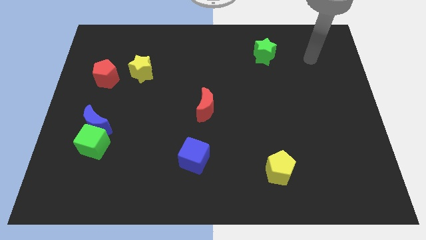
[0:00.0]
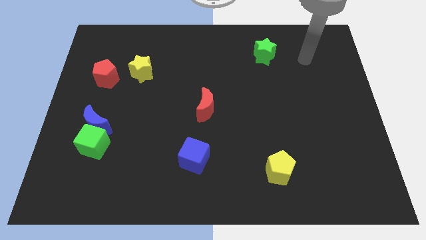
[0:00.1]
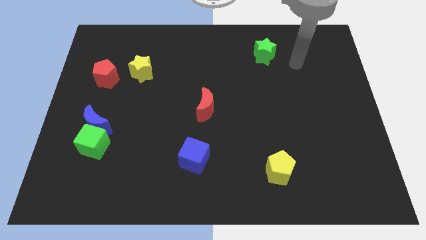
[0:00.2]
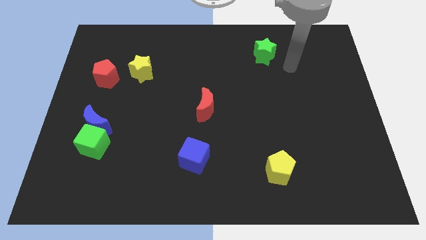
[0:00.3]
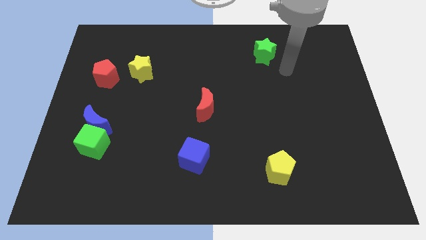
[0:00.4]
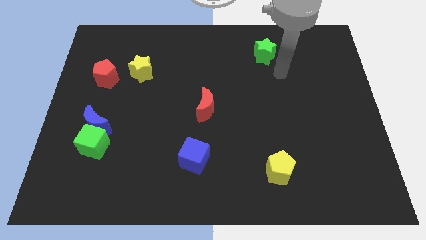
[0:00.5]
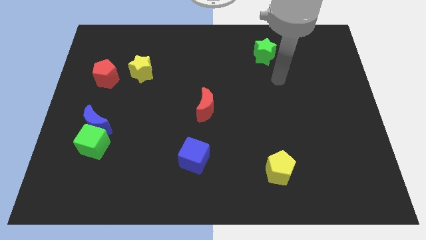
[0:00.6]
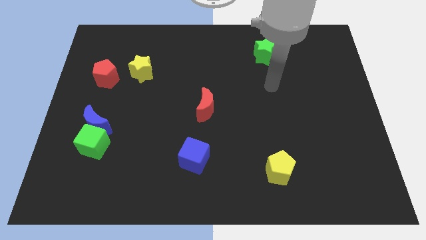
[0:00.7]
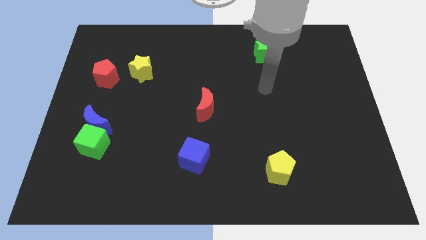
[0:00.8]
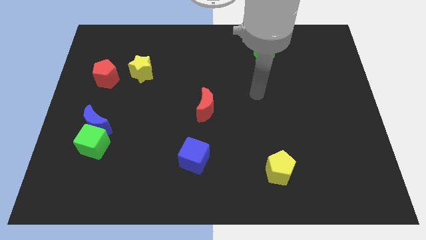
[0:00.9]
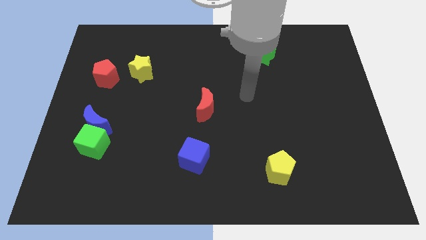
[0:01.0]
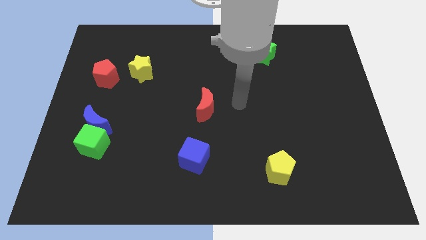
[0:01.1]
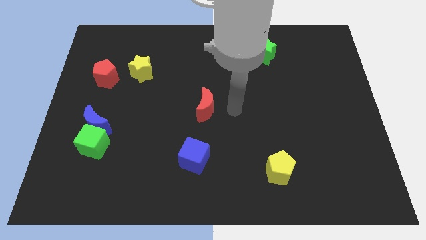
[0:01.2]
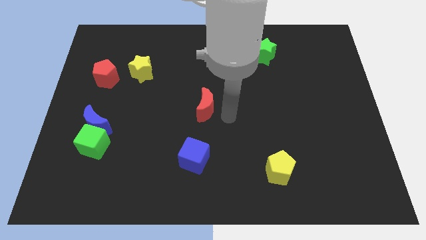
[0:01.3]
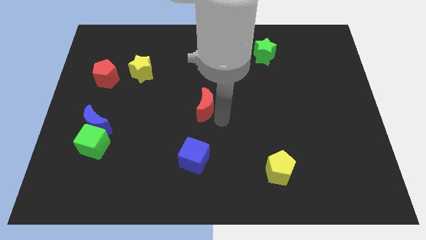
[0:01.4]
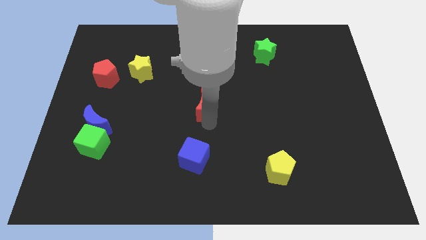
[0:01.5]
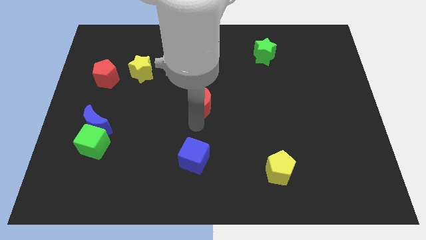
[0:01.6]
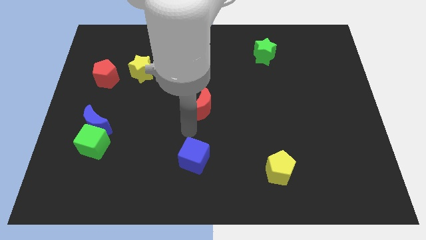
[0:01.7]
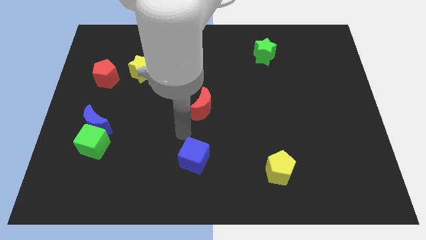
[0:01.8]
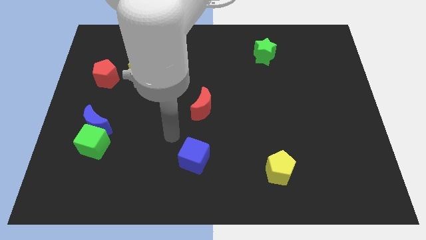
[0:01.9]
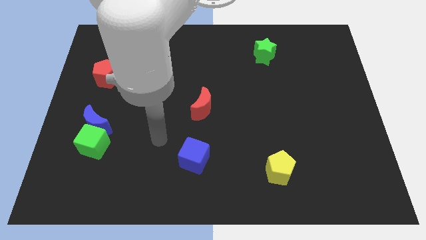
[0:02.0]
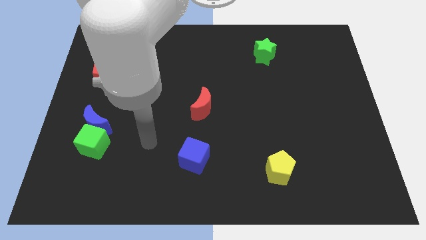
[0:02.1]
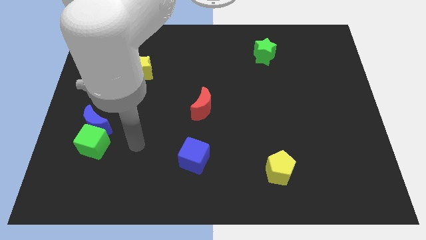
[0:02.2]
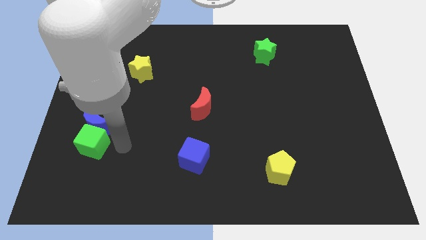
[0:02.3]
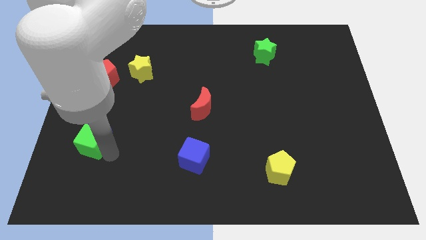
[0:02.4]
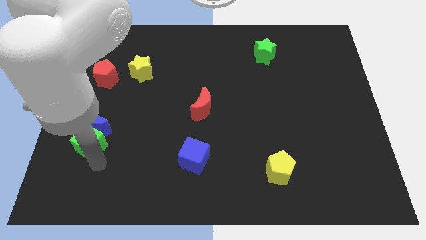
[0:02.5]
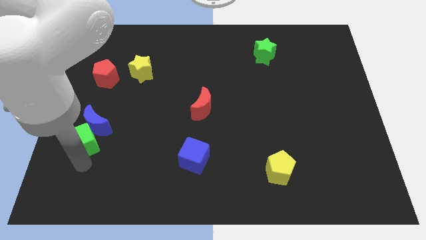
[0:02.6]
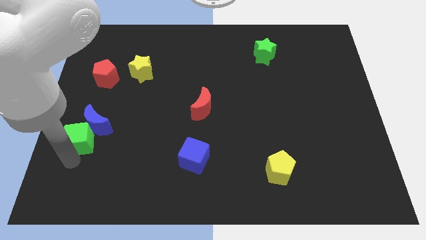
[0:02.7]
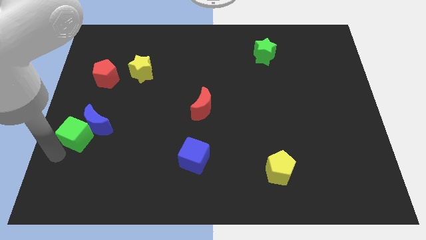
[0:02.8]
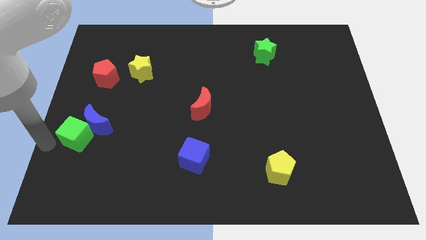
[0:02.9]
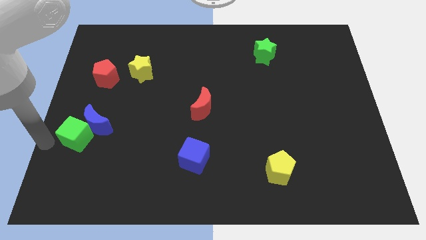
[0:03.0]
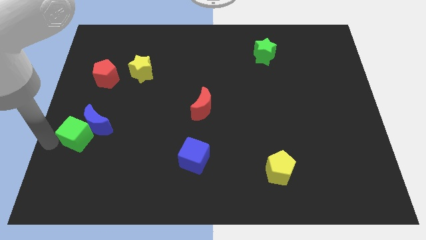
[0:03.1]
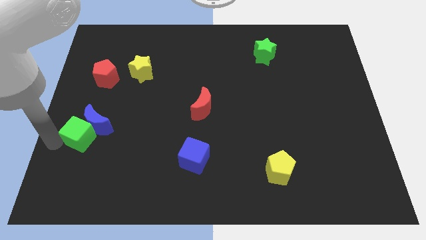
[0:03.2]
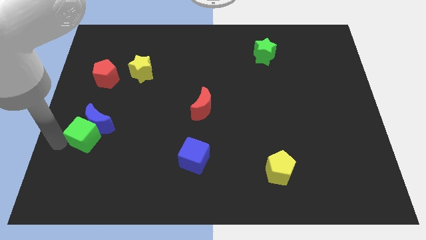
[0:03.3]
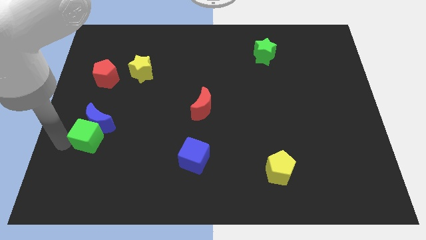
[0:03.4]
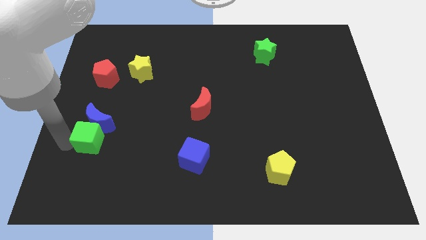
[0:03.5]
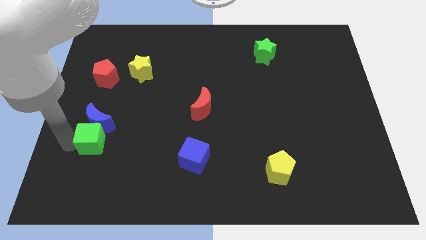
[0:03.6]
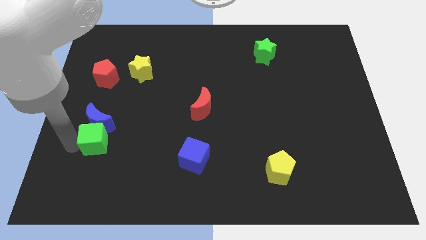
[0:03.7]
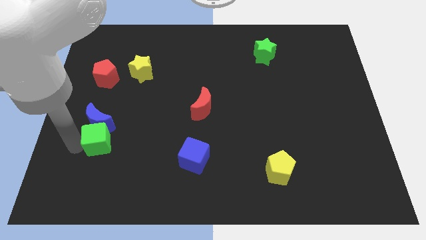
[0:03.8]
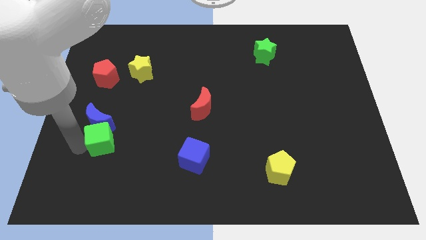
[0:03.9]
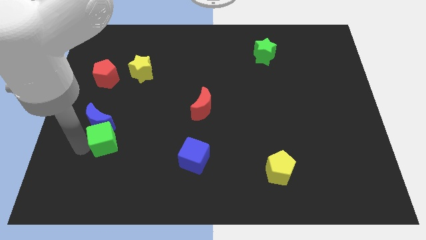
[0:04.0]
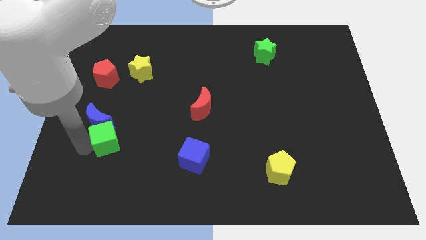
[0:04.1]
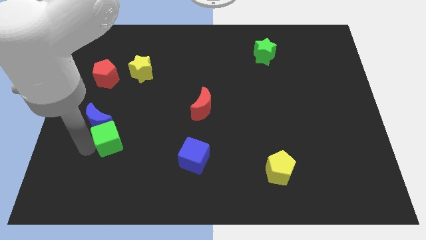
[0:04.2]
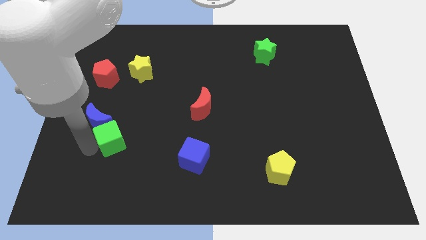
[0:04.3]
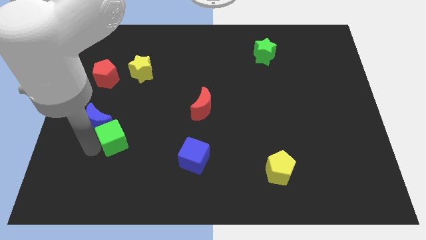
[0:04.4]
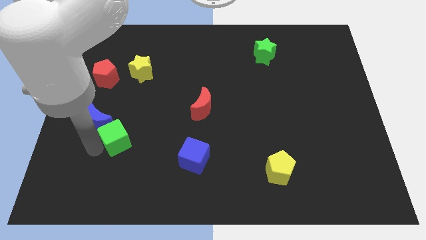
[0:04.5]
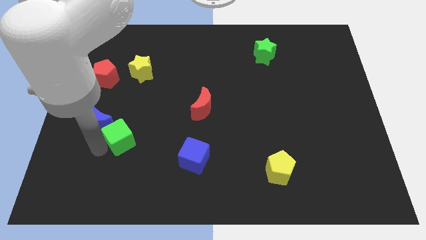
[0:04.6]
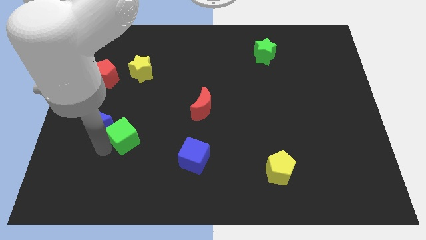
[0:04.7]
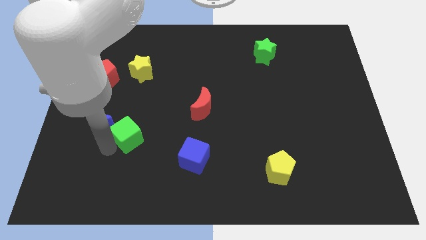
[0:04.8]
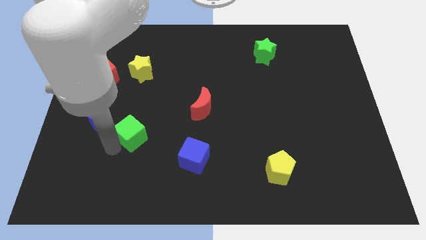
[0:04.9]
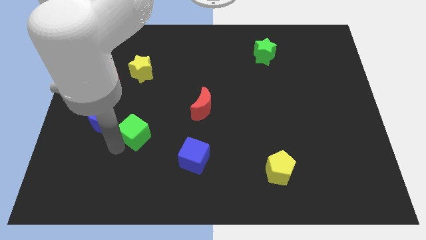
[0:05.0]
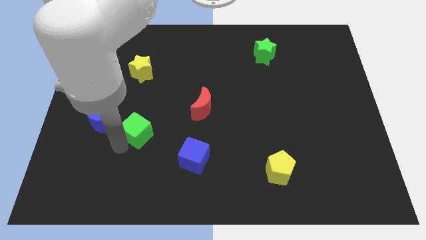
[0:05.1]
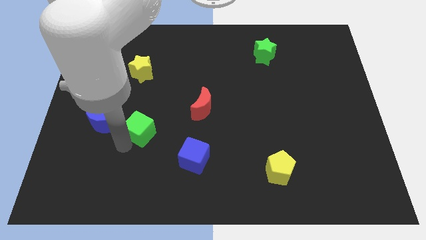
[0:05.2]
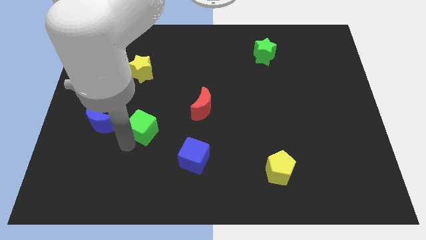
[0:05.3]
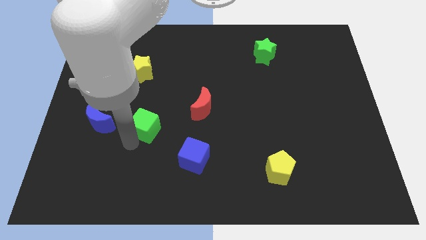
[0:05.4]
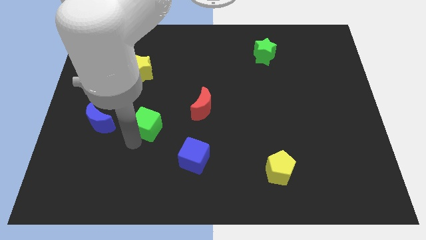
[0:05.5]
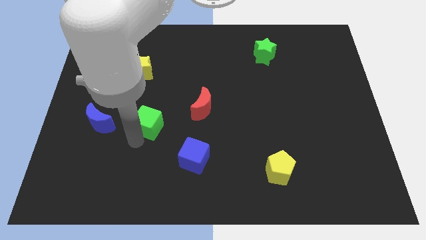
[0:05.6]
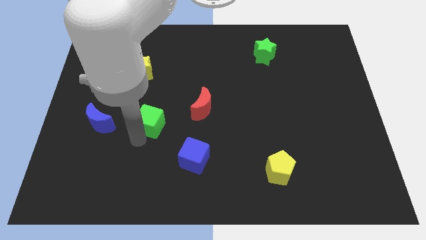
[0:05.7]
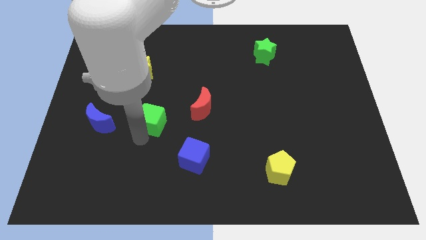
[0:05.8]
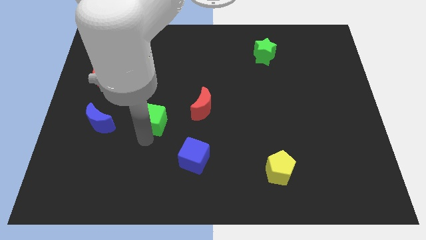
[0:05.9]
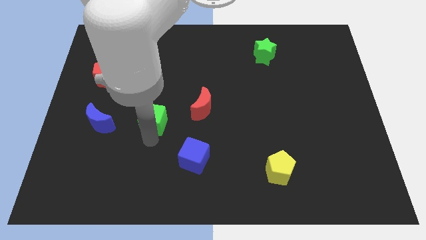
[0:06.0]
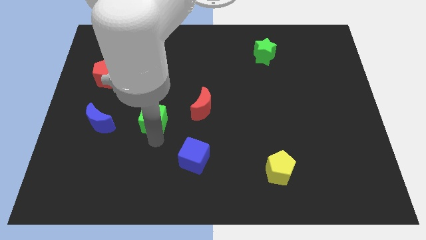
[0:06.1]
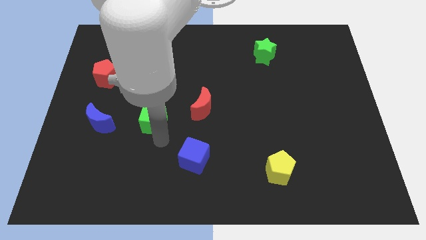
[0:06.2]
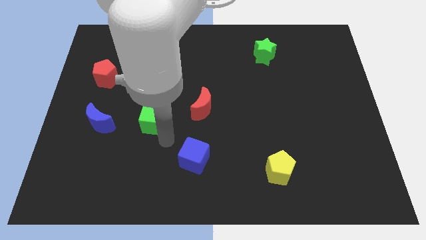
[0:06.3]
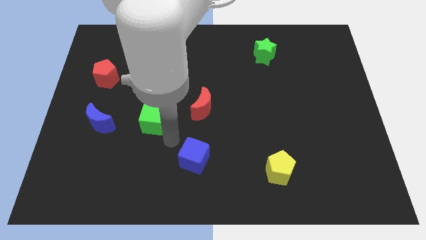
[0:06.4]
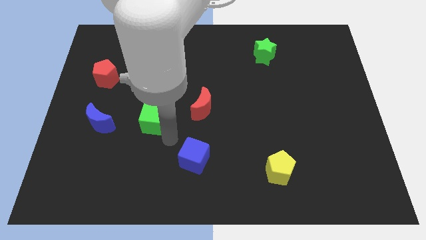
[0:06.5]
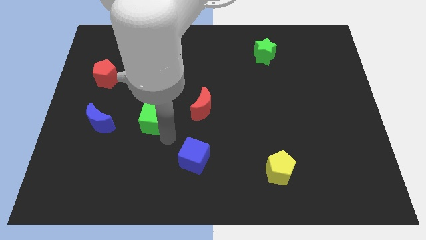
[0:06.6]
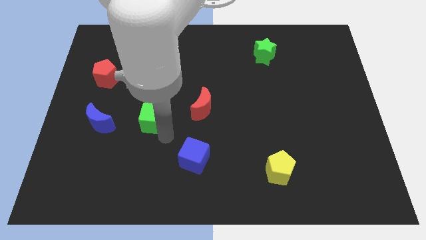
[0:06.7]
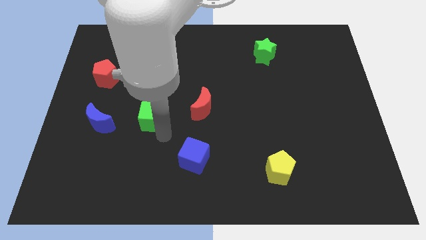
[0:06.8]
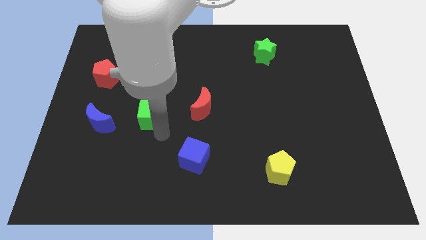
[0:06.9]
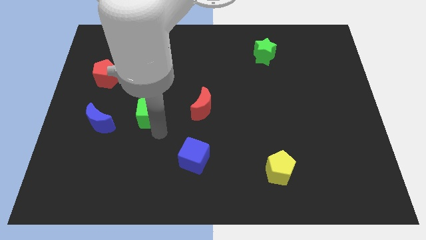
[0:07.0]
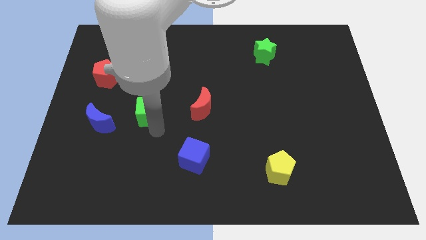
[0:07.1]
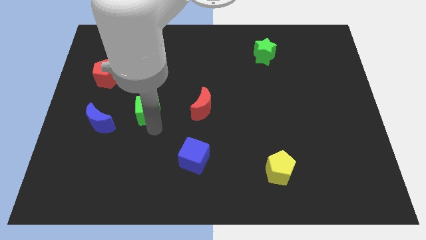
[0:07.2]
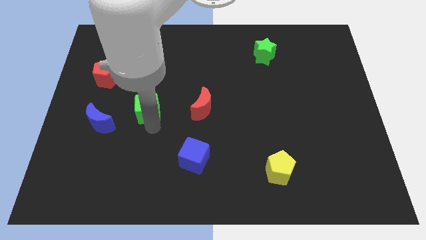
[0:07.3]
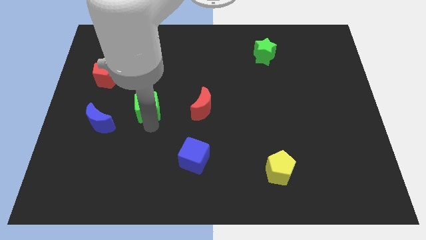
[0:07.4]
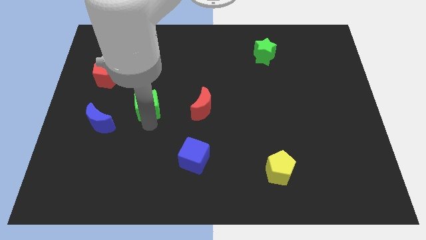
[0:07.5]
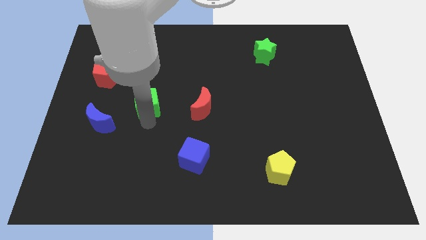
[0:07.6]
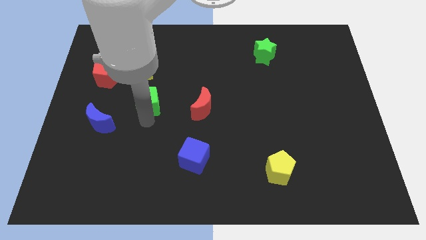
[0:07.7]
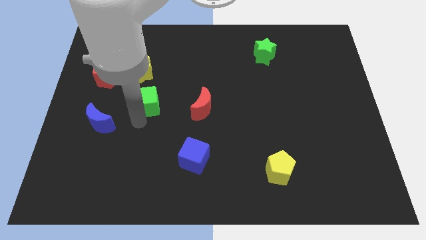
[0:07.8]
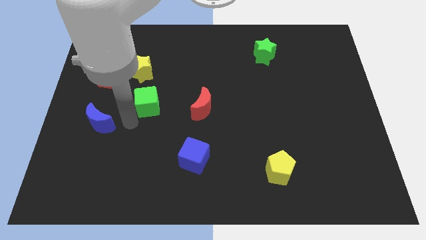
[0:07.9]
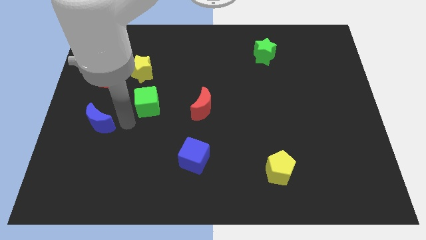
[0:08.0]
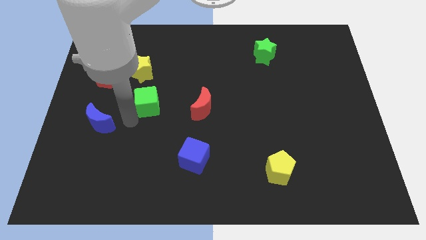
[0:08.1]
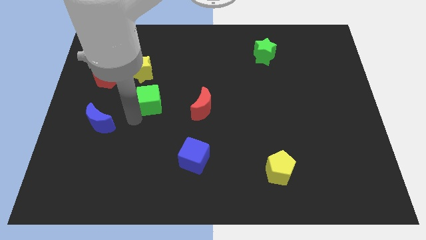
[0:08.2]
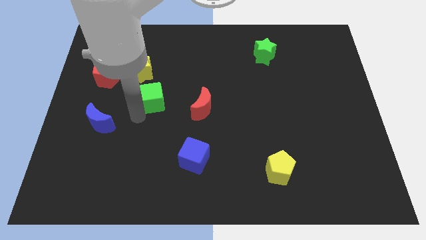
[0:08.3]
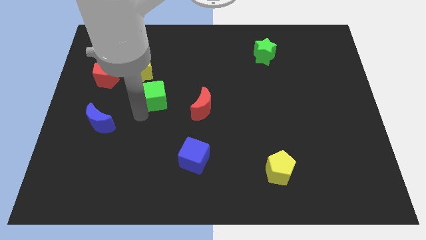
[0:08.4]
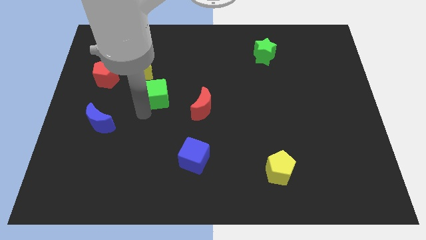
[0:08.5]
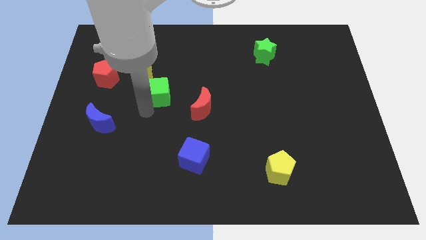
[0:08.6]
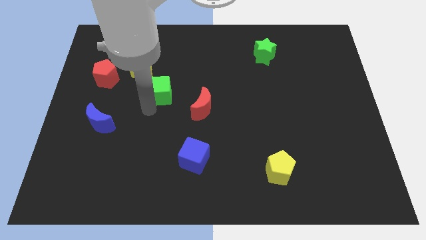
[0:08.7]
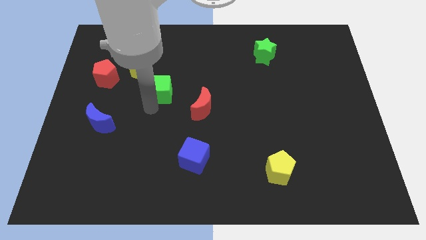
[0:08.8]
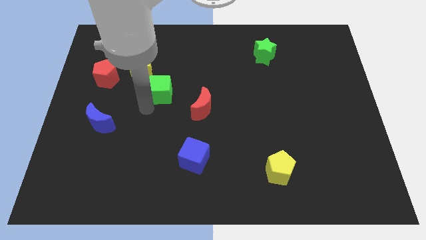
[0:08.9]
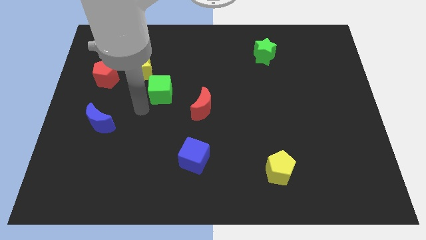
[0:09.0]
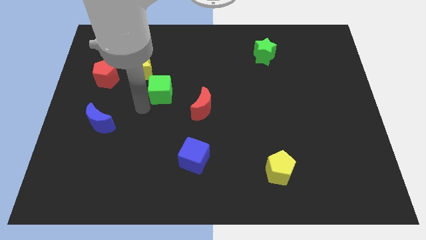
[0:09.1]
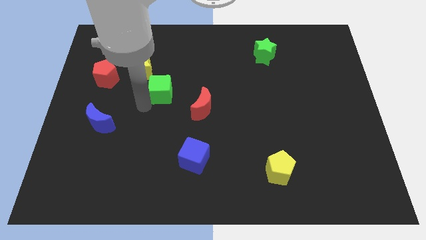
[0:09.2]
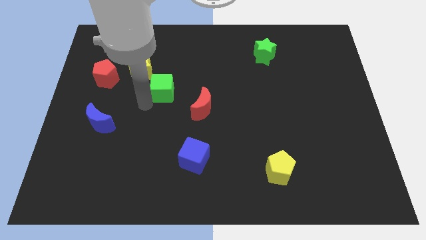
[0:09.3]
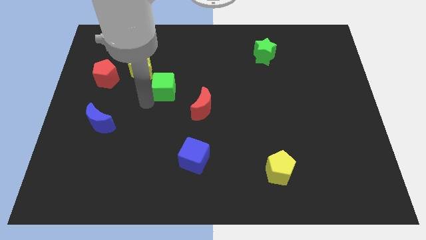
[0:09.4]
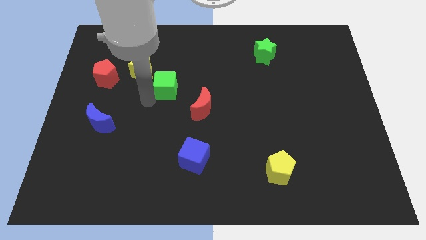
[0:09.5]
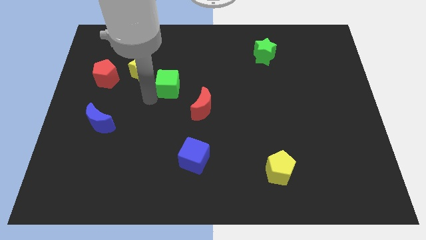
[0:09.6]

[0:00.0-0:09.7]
slide the green cube just right of the yellow star
